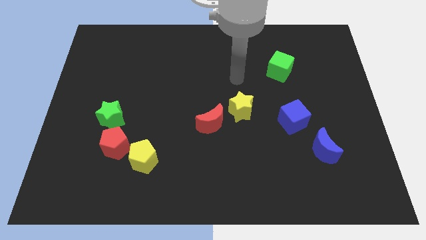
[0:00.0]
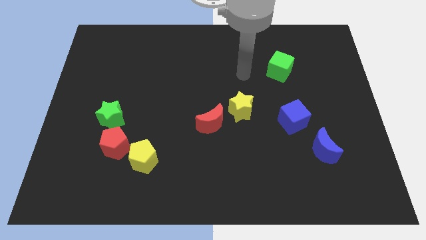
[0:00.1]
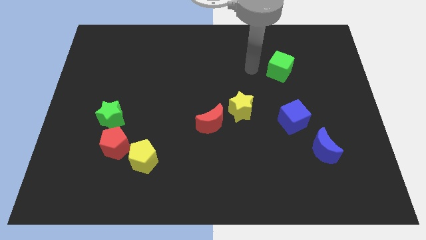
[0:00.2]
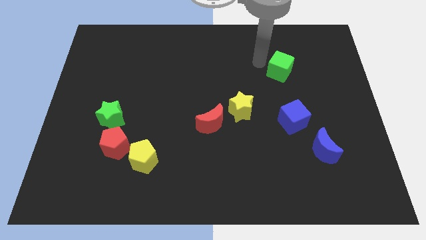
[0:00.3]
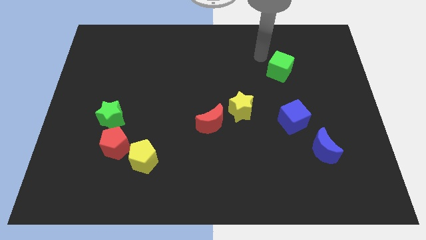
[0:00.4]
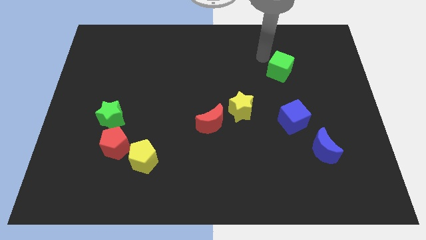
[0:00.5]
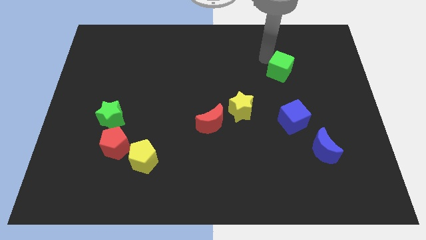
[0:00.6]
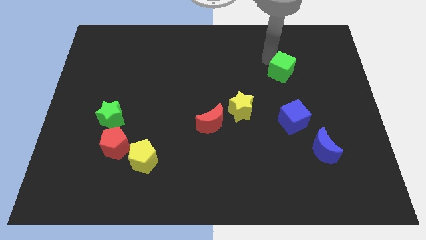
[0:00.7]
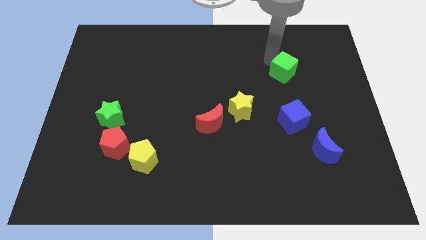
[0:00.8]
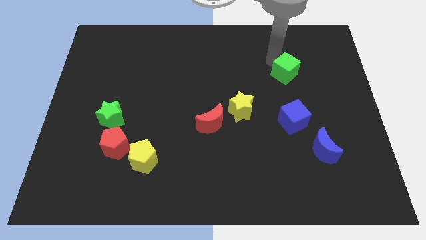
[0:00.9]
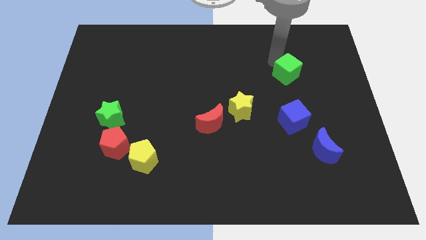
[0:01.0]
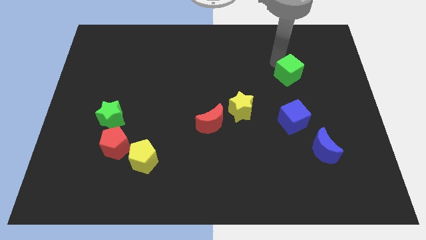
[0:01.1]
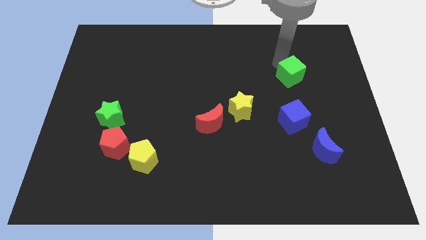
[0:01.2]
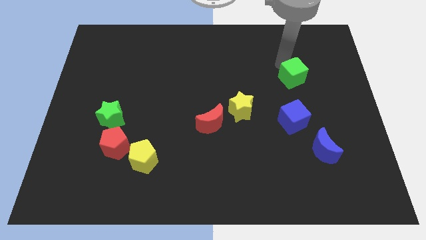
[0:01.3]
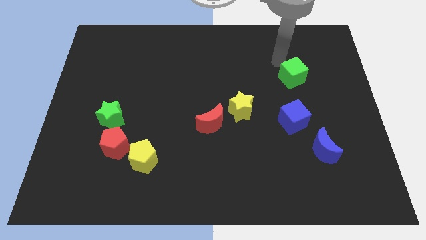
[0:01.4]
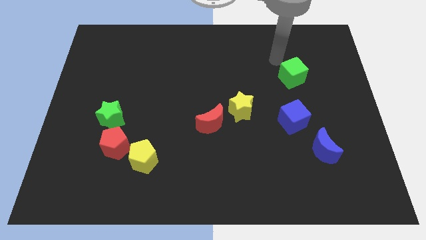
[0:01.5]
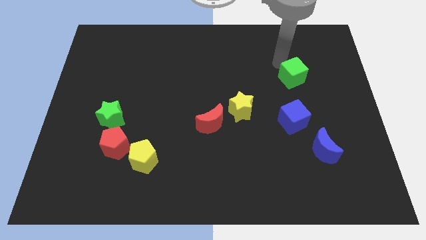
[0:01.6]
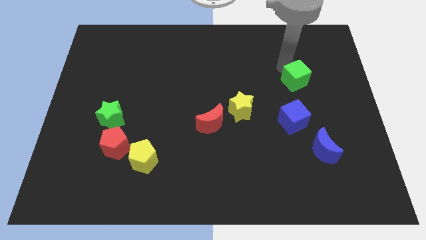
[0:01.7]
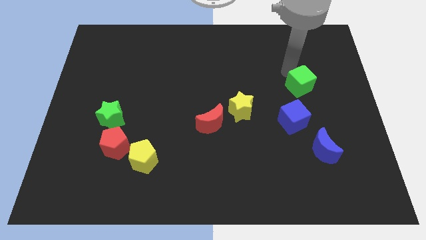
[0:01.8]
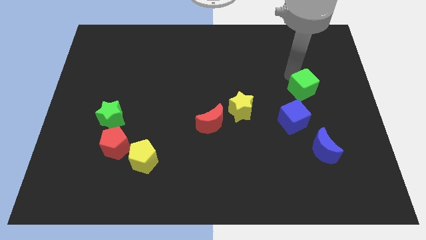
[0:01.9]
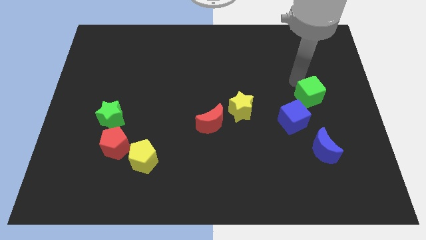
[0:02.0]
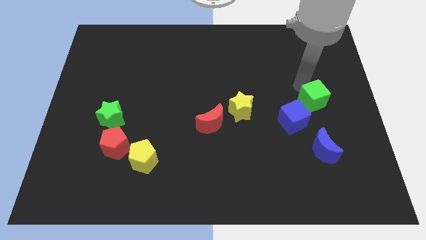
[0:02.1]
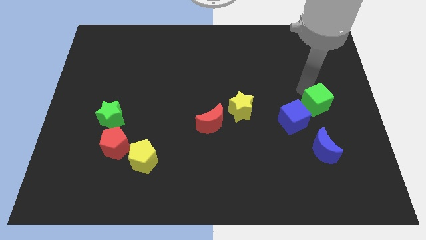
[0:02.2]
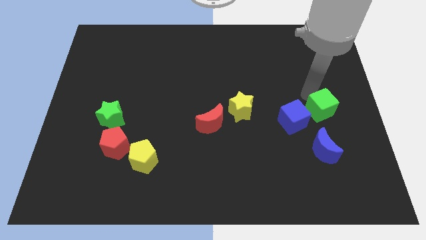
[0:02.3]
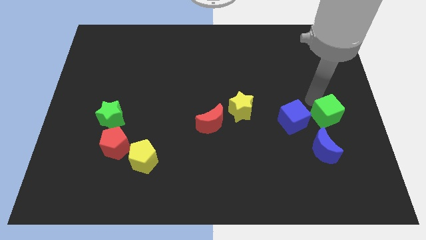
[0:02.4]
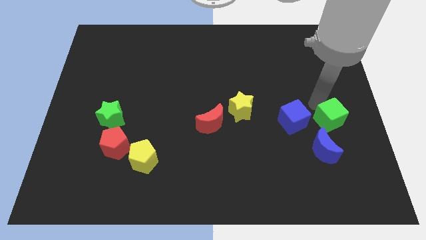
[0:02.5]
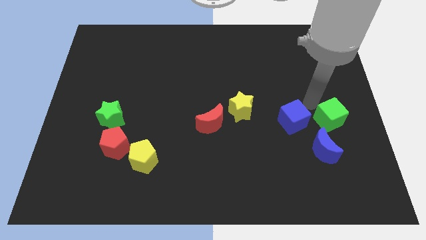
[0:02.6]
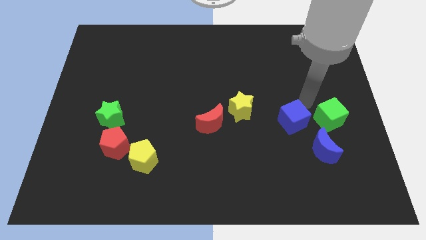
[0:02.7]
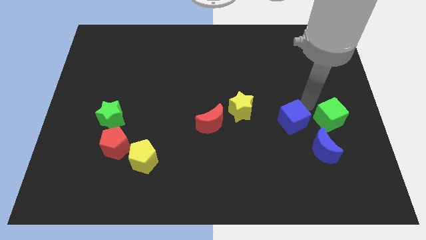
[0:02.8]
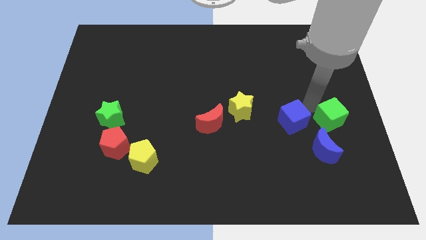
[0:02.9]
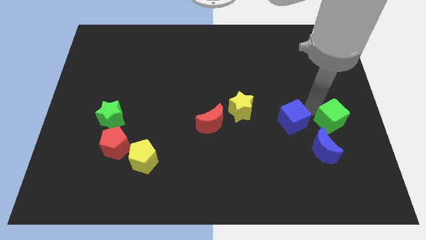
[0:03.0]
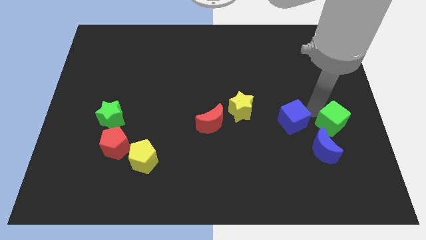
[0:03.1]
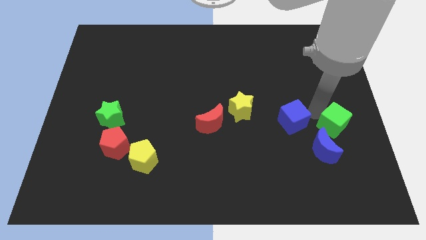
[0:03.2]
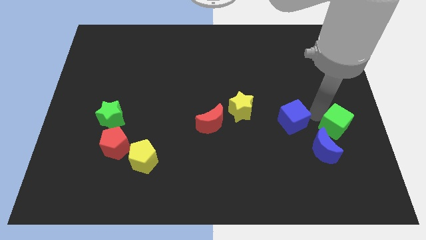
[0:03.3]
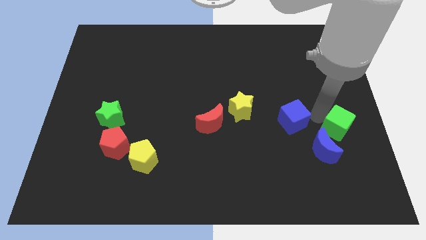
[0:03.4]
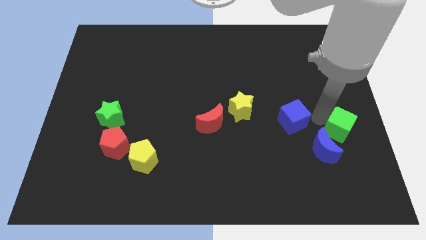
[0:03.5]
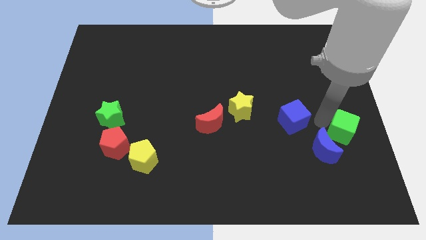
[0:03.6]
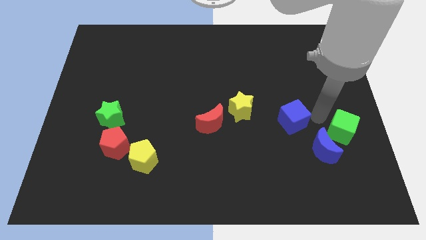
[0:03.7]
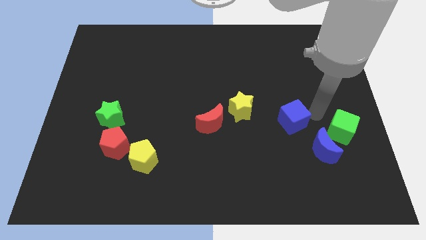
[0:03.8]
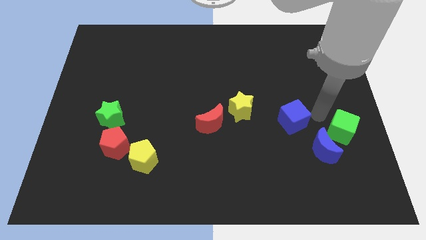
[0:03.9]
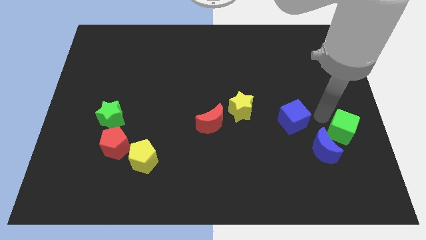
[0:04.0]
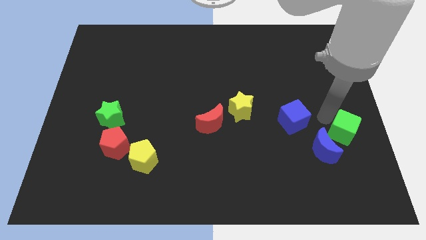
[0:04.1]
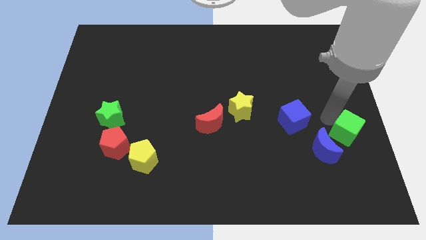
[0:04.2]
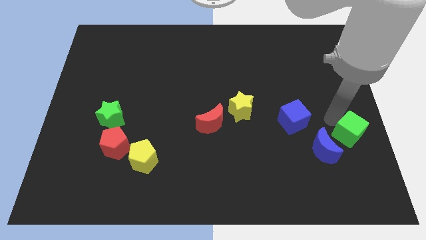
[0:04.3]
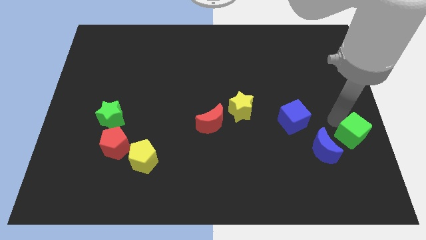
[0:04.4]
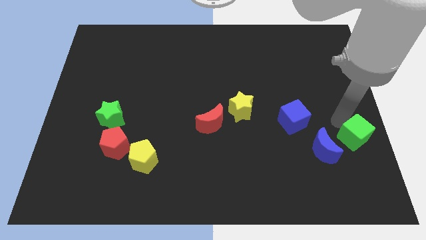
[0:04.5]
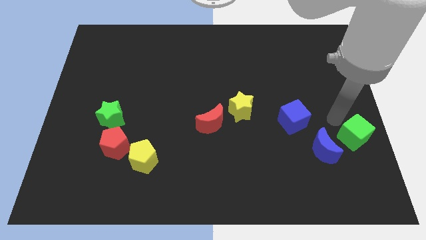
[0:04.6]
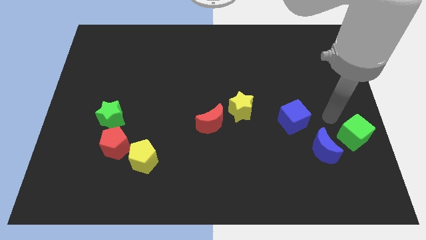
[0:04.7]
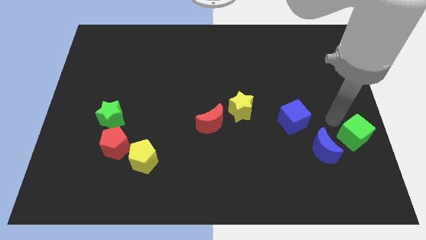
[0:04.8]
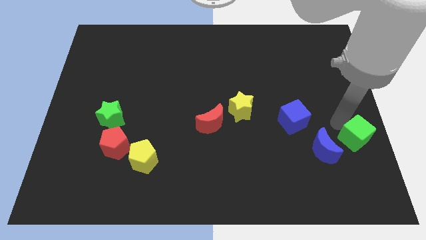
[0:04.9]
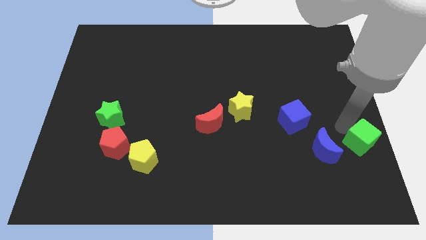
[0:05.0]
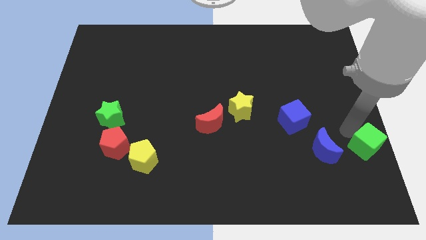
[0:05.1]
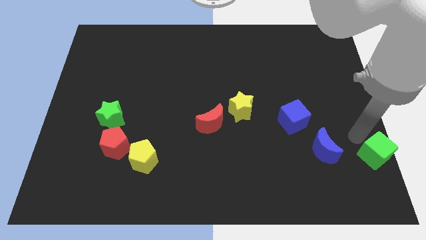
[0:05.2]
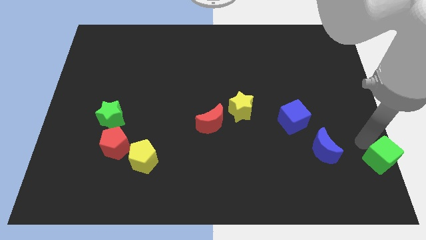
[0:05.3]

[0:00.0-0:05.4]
slide the green cube to the bottom right corner

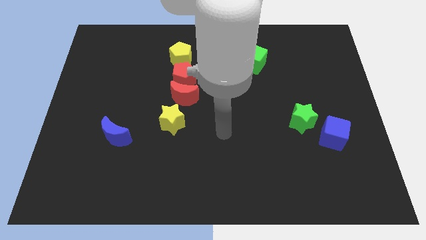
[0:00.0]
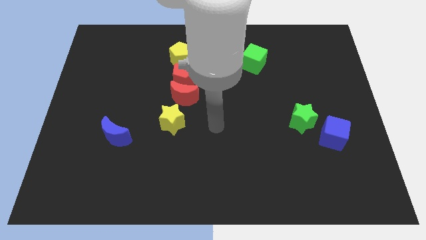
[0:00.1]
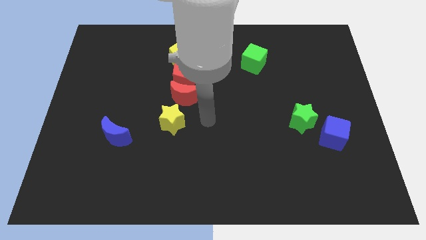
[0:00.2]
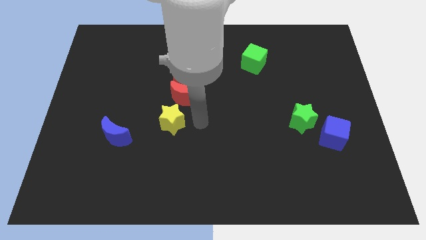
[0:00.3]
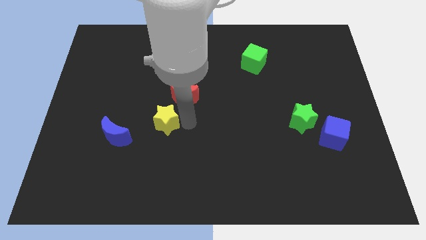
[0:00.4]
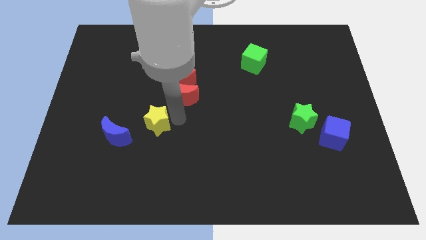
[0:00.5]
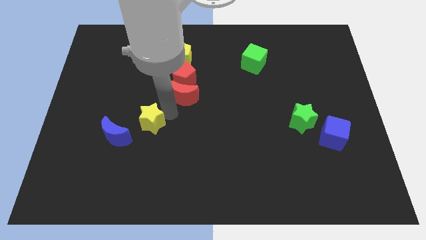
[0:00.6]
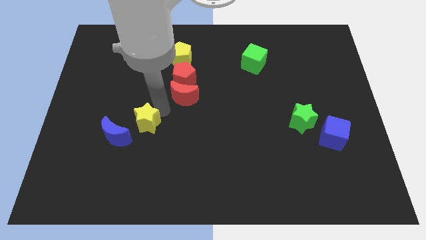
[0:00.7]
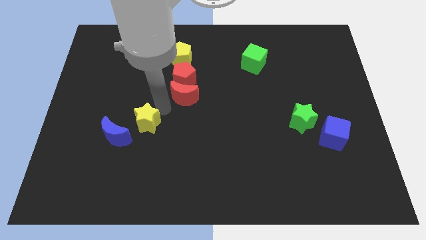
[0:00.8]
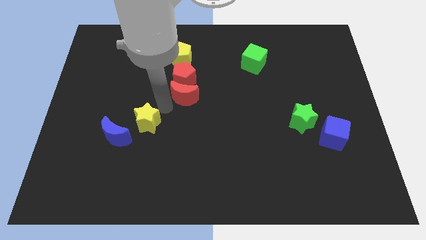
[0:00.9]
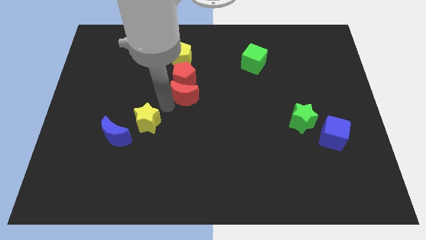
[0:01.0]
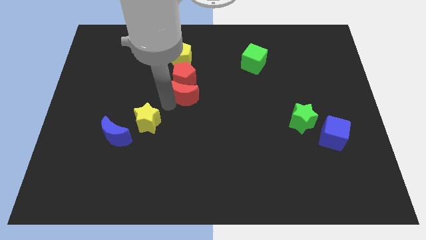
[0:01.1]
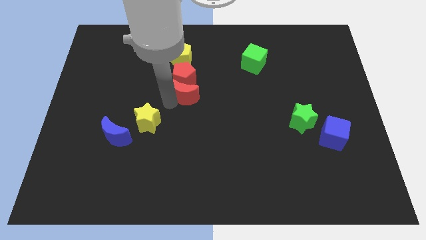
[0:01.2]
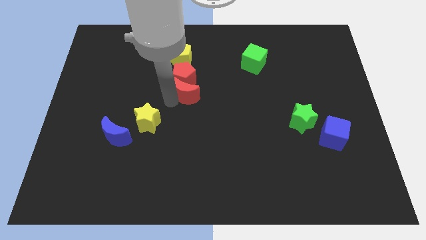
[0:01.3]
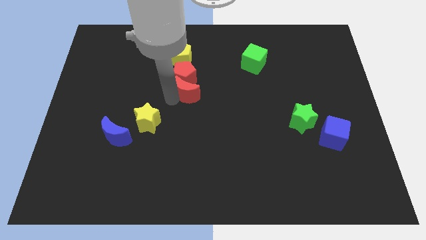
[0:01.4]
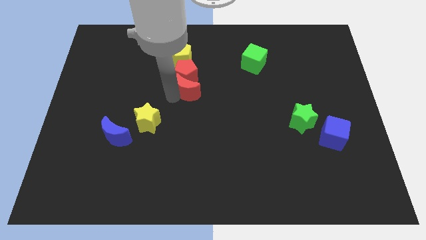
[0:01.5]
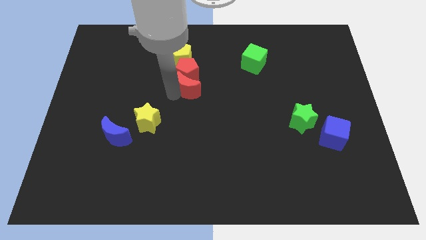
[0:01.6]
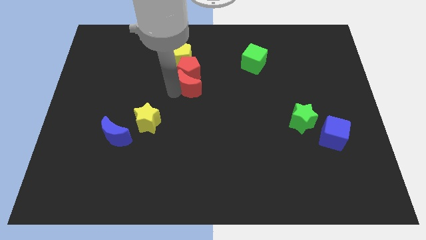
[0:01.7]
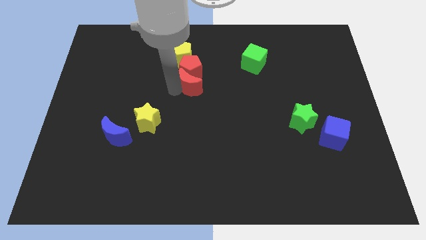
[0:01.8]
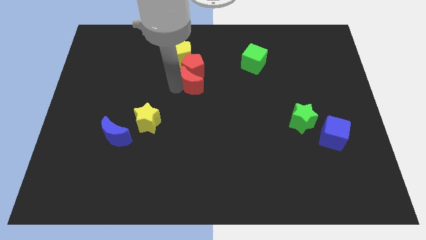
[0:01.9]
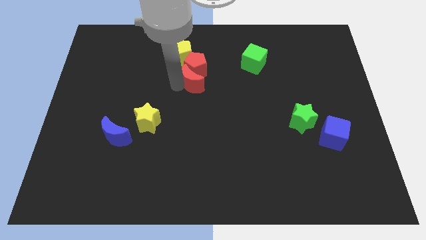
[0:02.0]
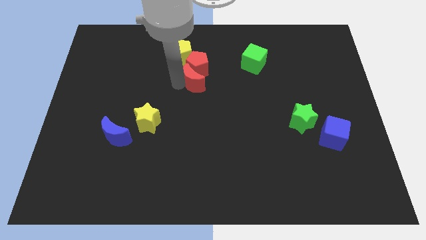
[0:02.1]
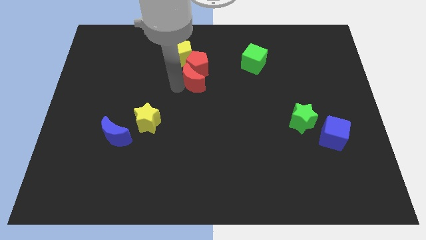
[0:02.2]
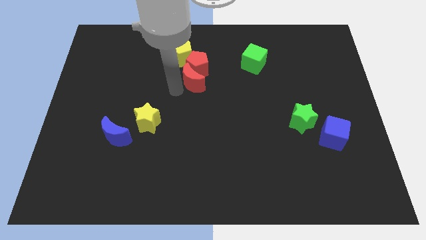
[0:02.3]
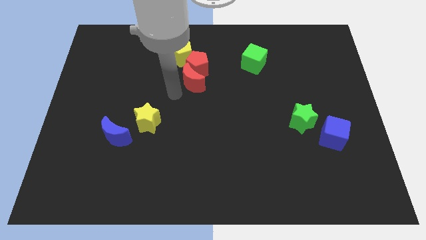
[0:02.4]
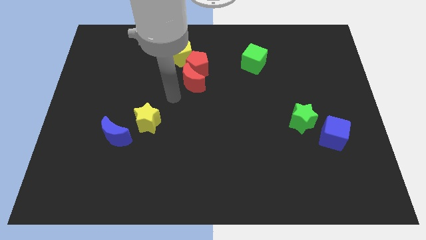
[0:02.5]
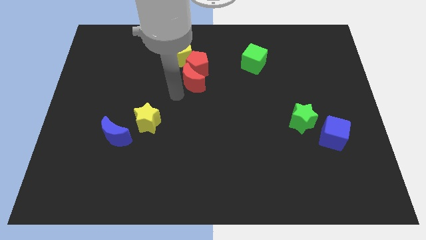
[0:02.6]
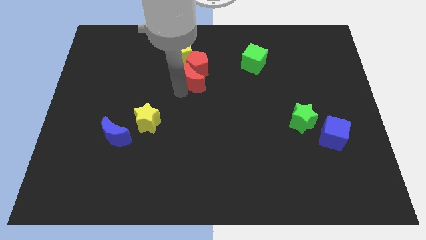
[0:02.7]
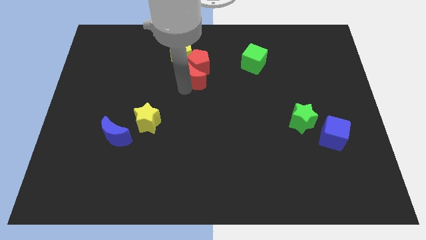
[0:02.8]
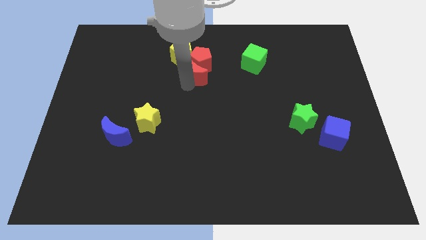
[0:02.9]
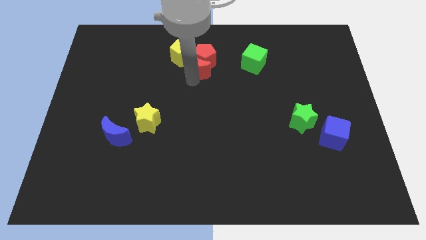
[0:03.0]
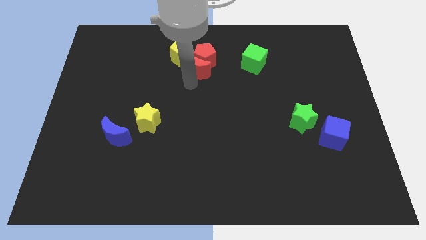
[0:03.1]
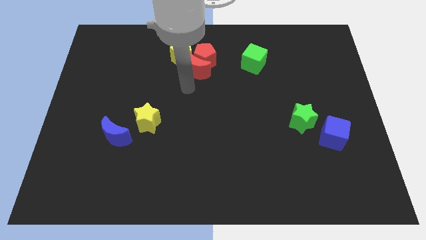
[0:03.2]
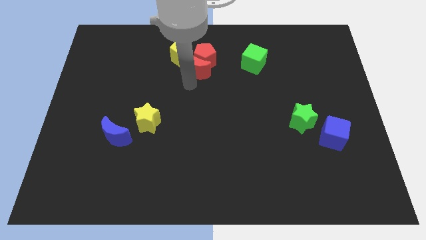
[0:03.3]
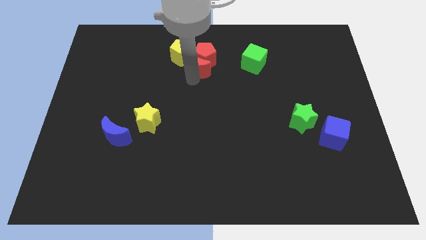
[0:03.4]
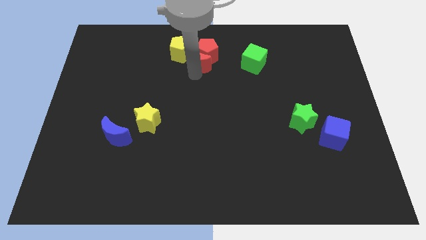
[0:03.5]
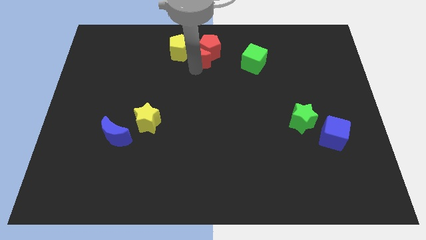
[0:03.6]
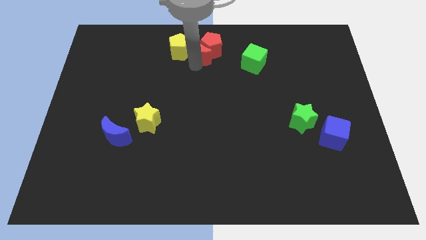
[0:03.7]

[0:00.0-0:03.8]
slide the red moon to the towards your base
